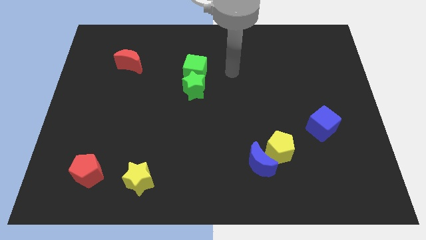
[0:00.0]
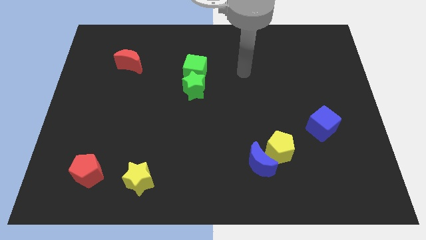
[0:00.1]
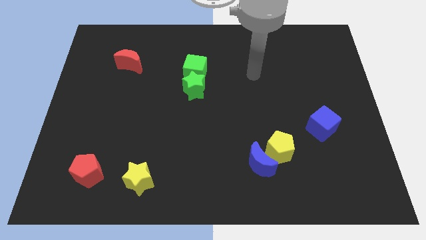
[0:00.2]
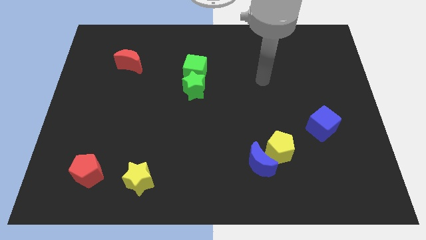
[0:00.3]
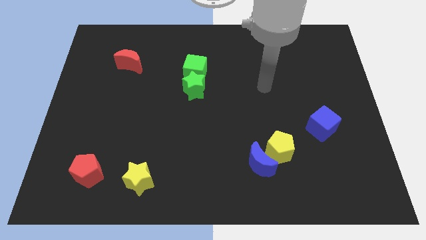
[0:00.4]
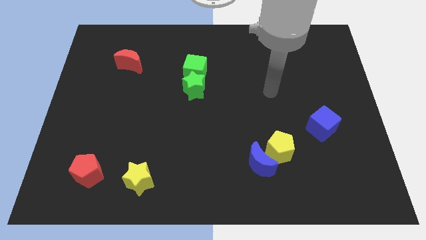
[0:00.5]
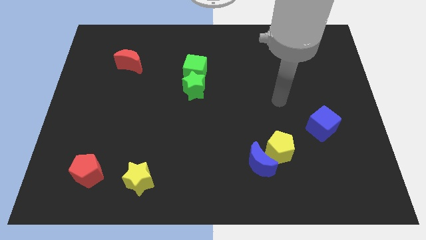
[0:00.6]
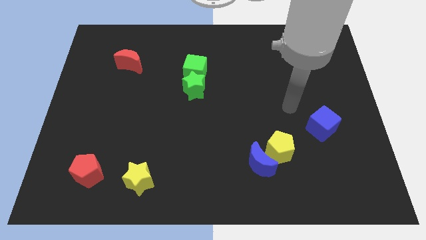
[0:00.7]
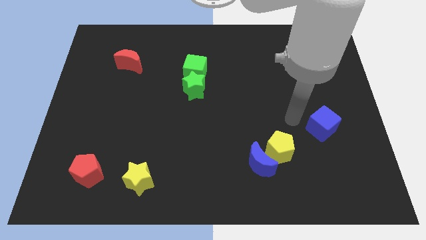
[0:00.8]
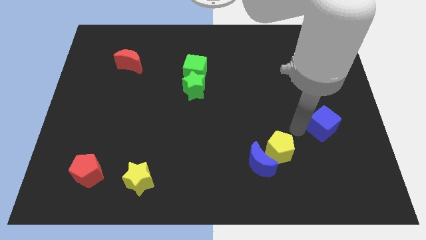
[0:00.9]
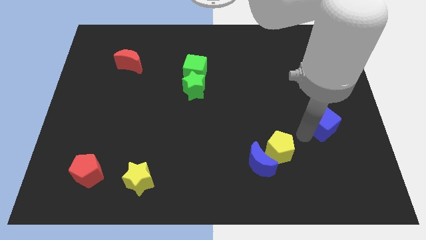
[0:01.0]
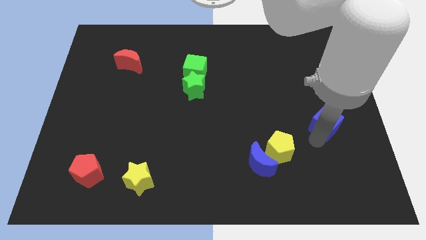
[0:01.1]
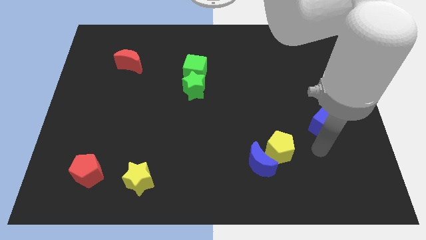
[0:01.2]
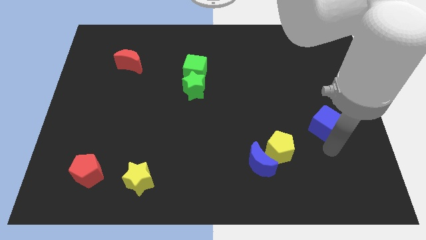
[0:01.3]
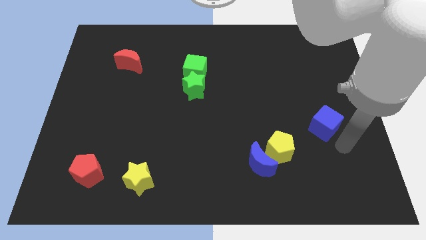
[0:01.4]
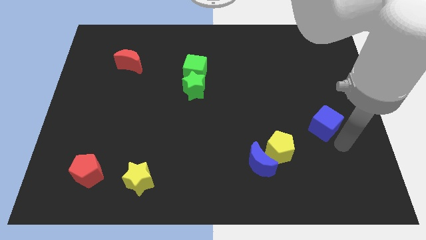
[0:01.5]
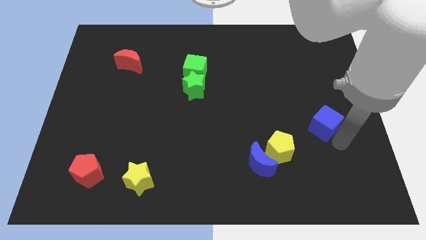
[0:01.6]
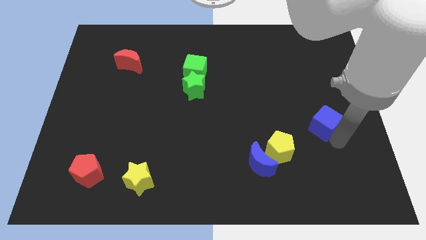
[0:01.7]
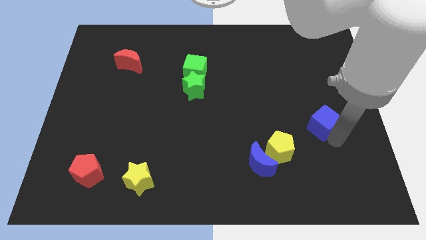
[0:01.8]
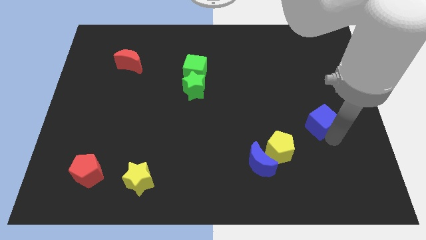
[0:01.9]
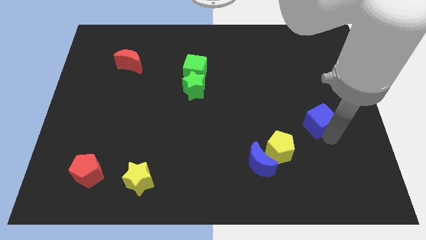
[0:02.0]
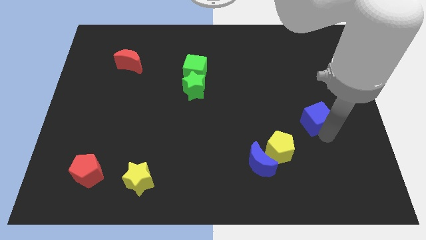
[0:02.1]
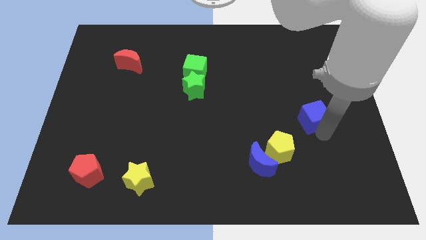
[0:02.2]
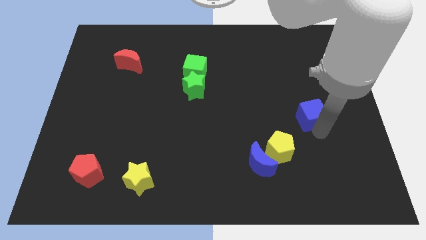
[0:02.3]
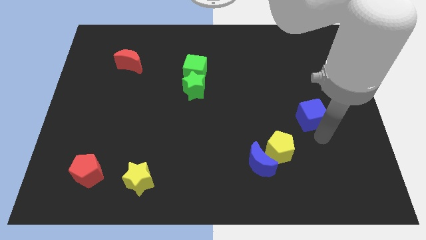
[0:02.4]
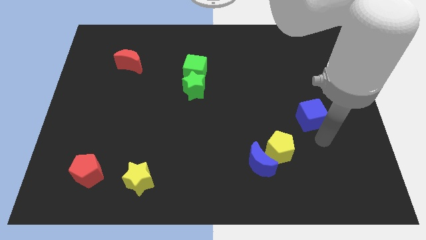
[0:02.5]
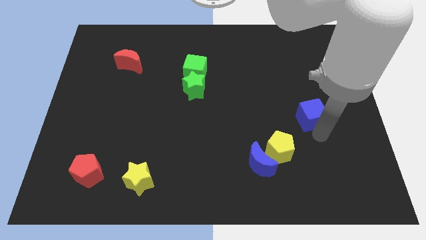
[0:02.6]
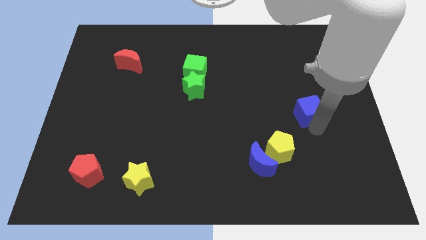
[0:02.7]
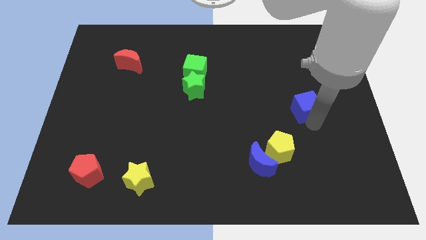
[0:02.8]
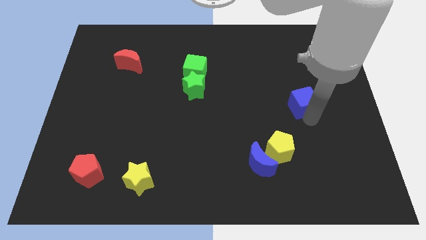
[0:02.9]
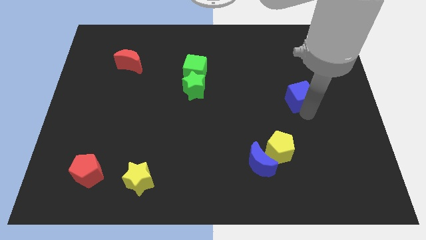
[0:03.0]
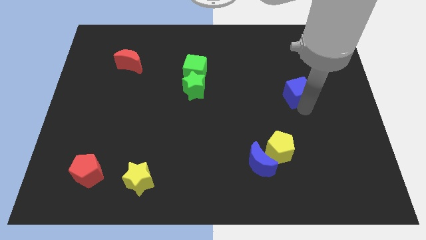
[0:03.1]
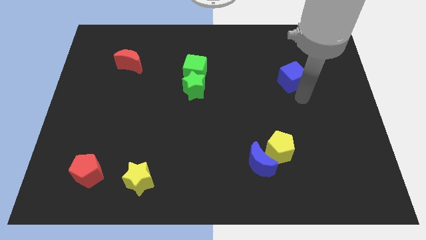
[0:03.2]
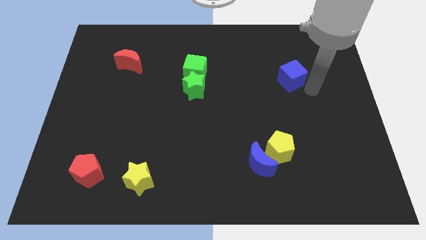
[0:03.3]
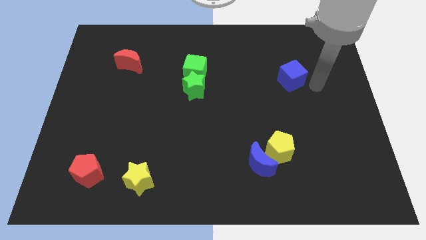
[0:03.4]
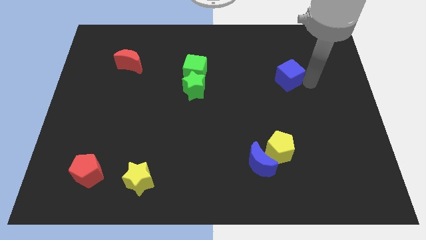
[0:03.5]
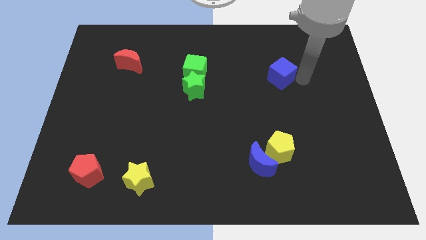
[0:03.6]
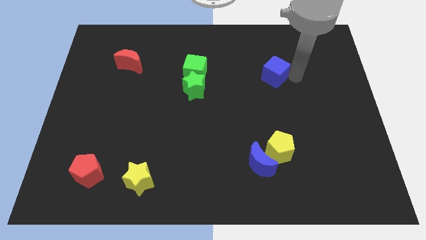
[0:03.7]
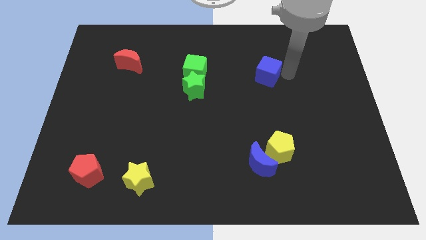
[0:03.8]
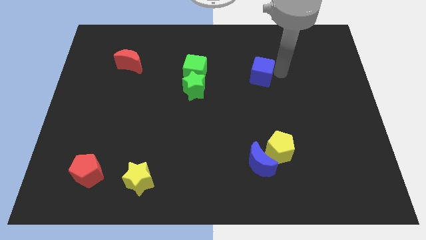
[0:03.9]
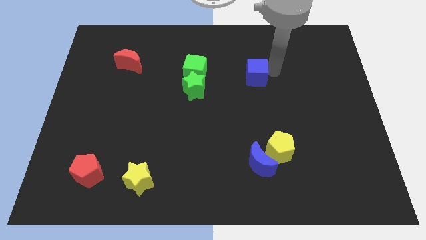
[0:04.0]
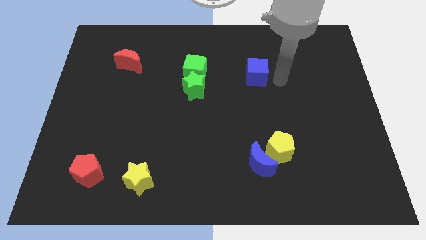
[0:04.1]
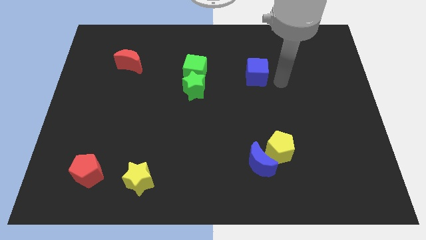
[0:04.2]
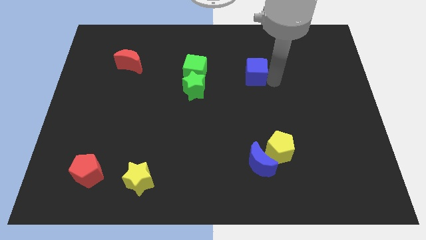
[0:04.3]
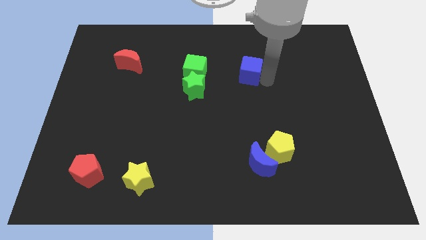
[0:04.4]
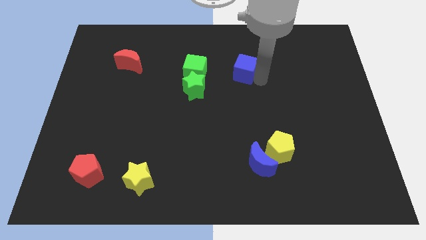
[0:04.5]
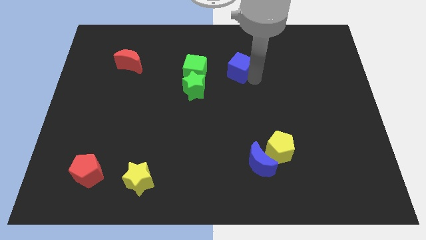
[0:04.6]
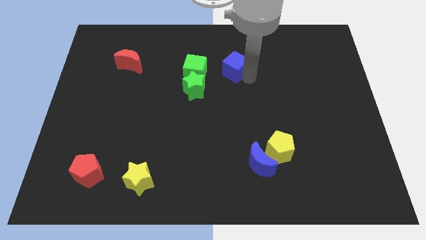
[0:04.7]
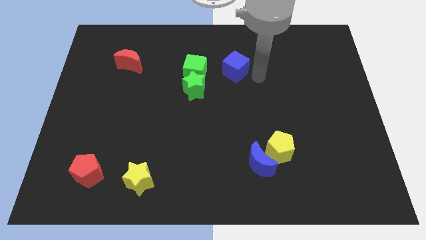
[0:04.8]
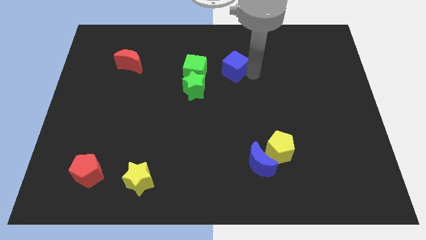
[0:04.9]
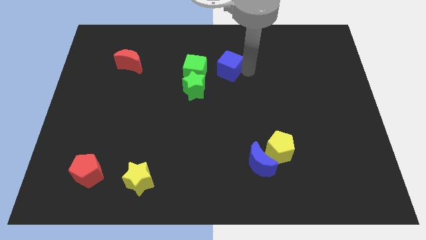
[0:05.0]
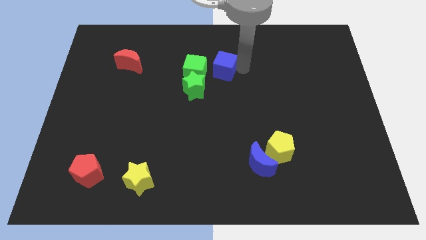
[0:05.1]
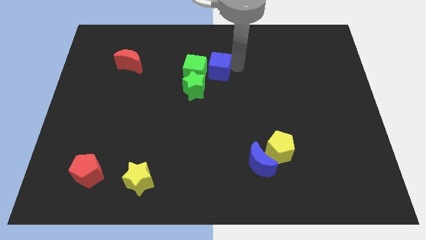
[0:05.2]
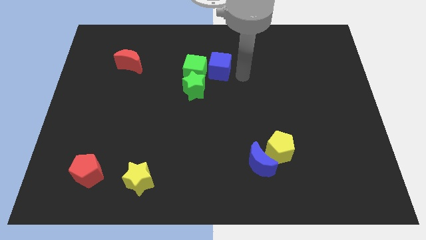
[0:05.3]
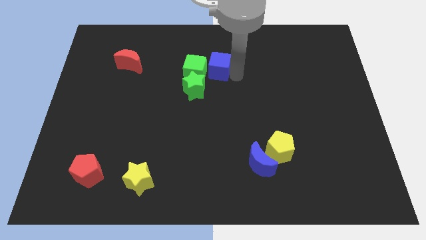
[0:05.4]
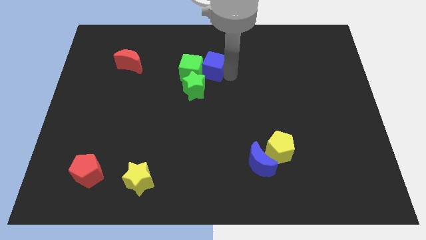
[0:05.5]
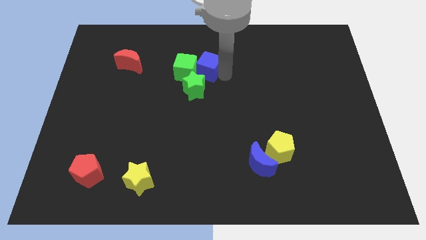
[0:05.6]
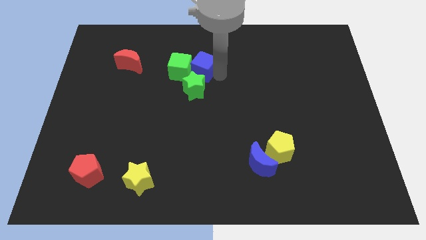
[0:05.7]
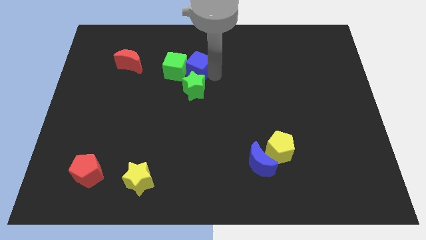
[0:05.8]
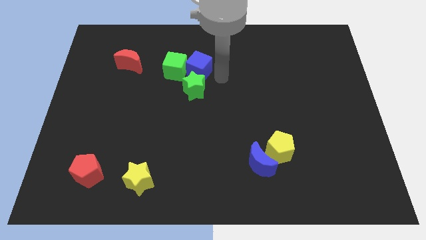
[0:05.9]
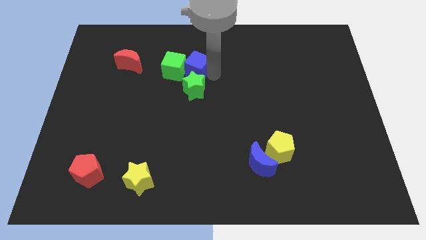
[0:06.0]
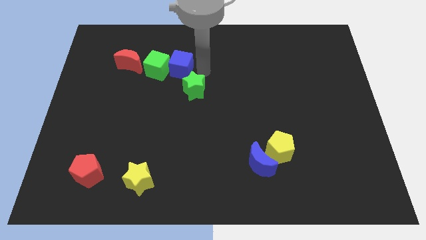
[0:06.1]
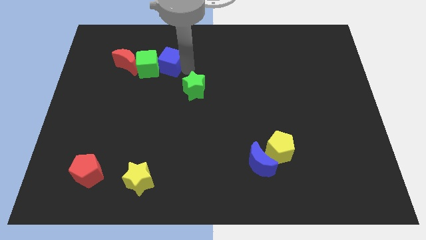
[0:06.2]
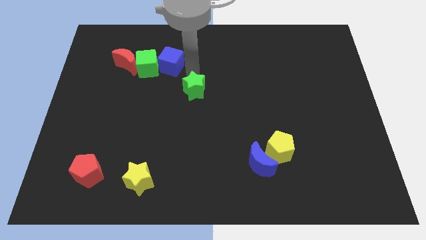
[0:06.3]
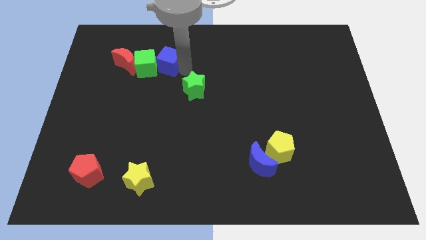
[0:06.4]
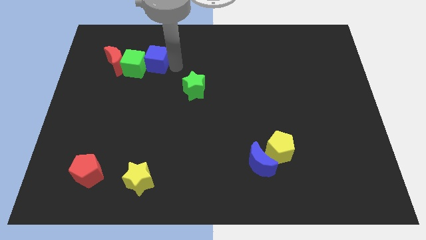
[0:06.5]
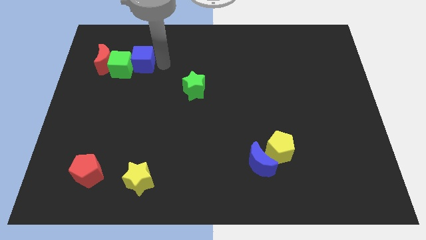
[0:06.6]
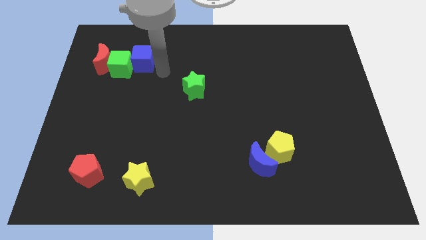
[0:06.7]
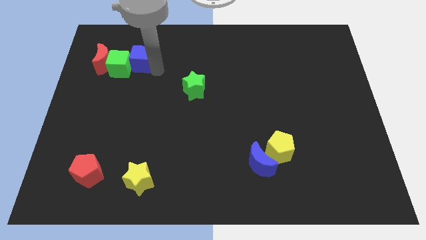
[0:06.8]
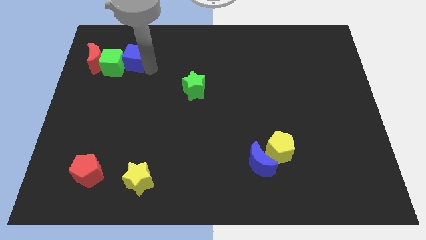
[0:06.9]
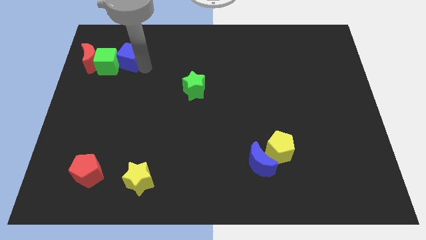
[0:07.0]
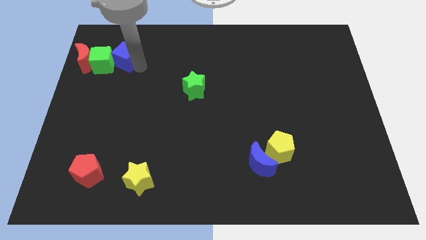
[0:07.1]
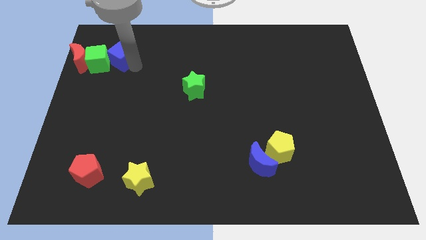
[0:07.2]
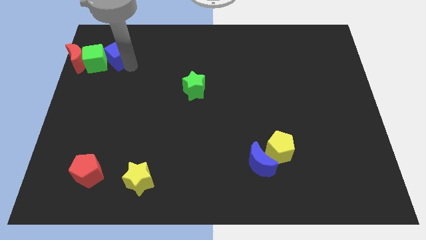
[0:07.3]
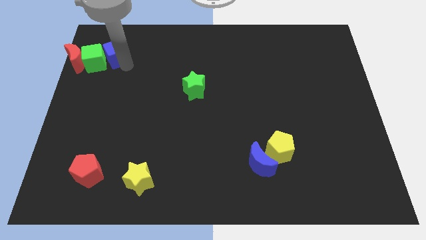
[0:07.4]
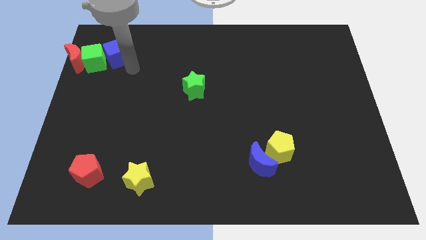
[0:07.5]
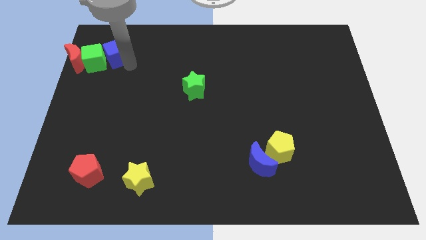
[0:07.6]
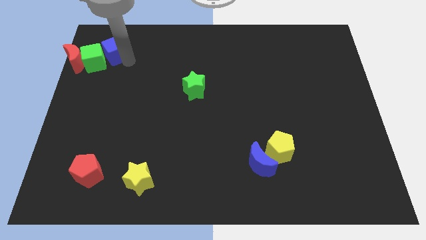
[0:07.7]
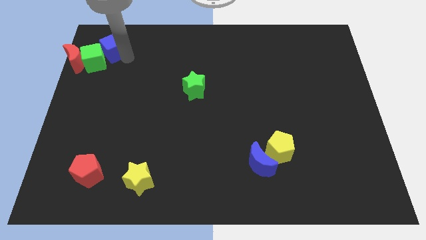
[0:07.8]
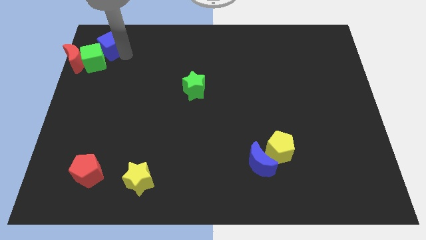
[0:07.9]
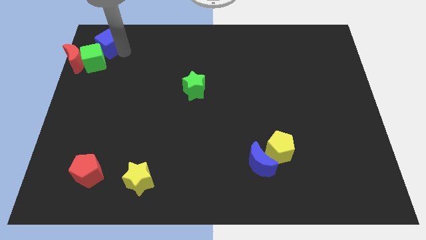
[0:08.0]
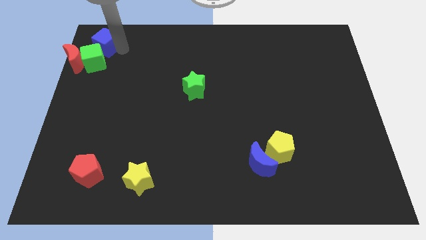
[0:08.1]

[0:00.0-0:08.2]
move the blue cube to the upper left corner
